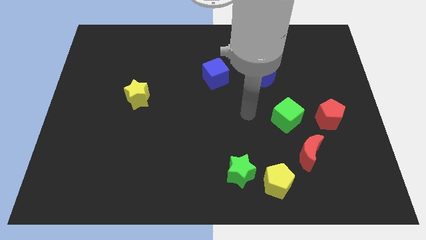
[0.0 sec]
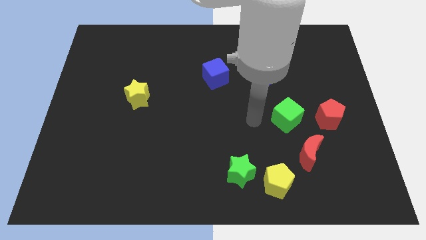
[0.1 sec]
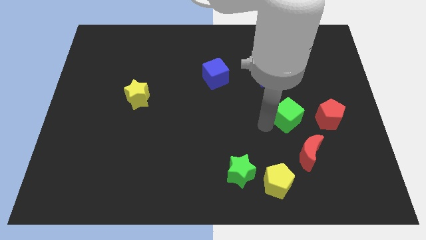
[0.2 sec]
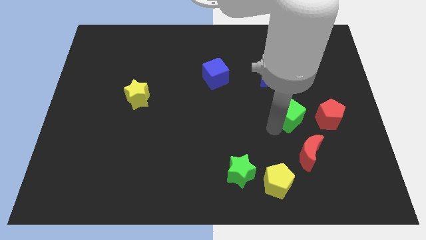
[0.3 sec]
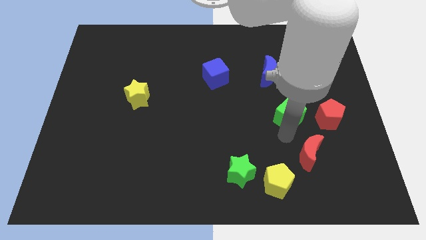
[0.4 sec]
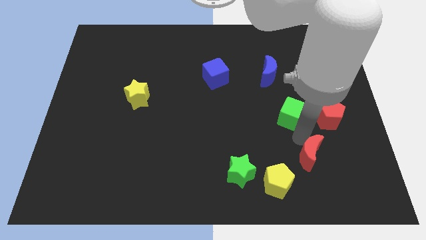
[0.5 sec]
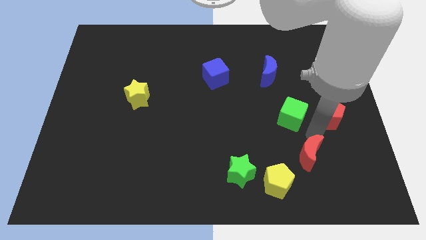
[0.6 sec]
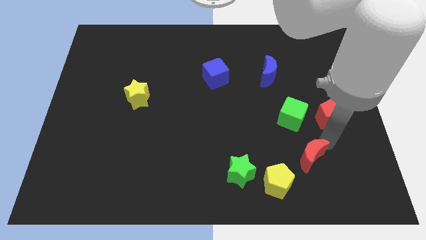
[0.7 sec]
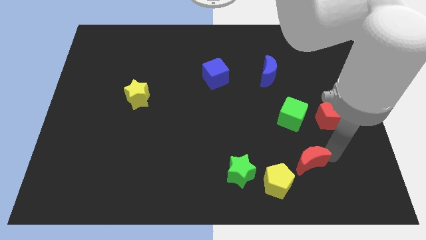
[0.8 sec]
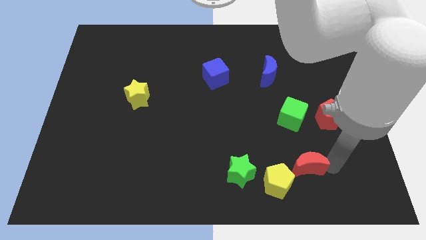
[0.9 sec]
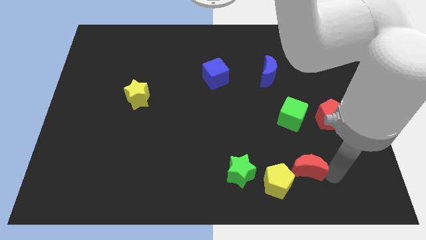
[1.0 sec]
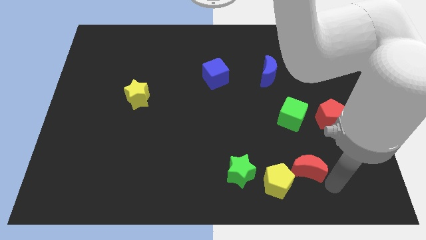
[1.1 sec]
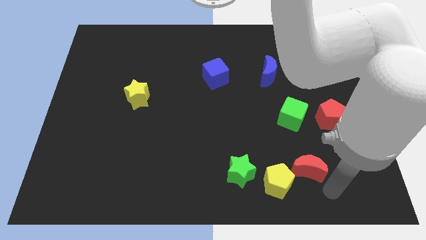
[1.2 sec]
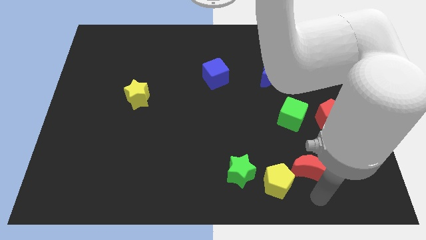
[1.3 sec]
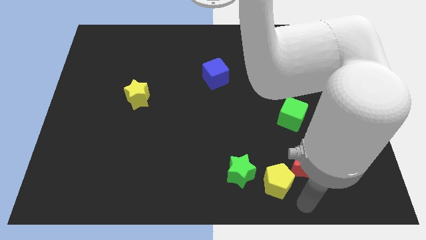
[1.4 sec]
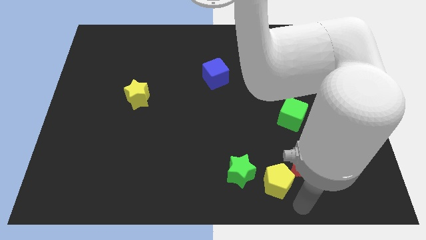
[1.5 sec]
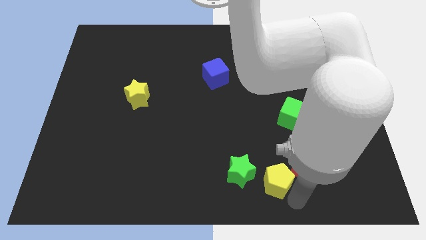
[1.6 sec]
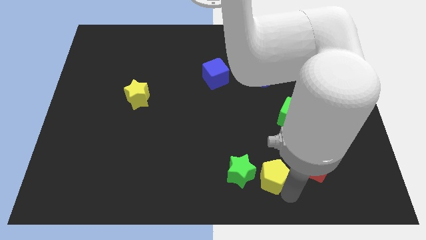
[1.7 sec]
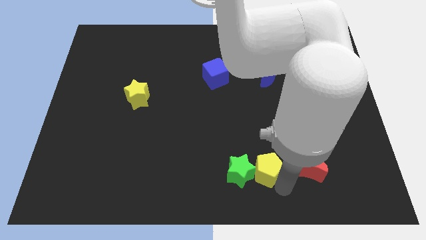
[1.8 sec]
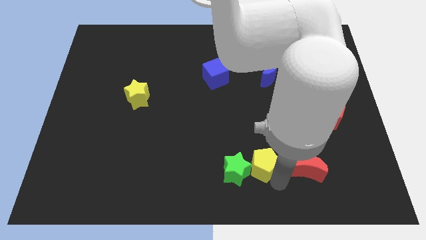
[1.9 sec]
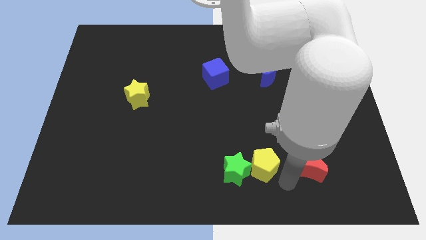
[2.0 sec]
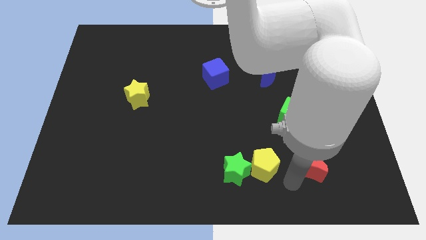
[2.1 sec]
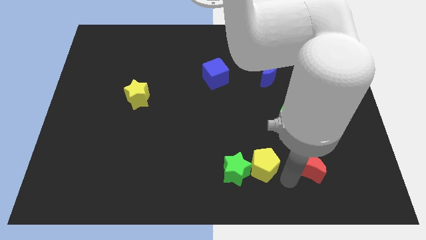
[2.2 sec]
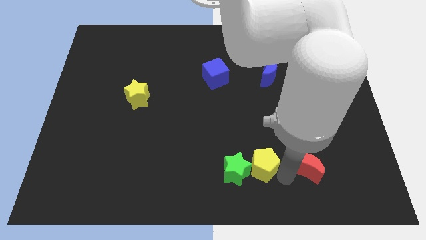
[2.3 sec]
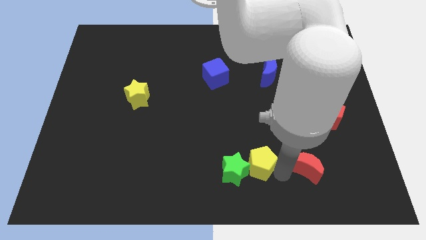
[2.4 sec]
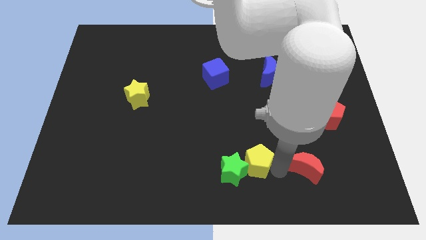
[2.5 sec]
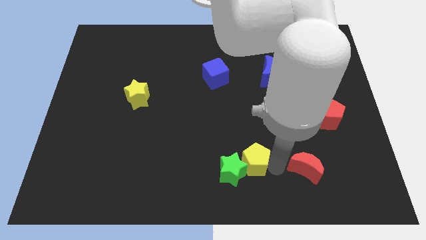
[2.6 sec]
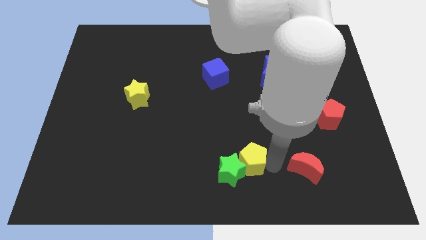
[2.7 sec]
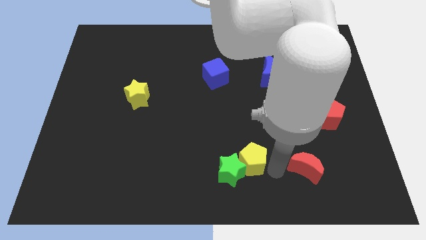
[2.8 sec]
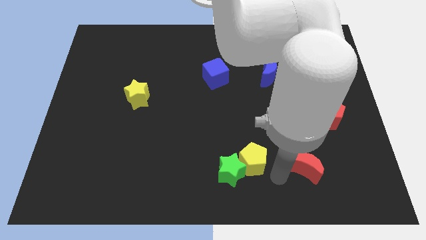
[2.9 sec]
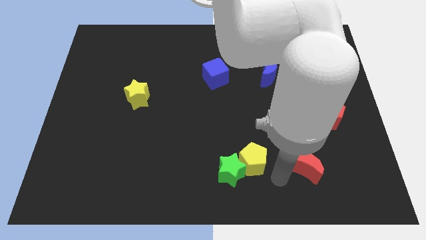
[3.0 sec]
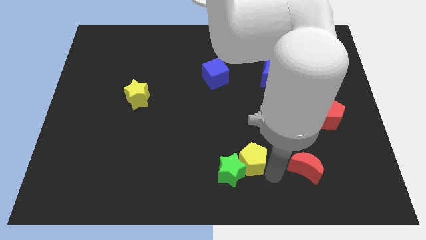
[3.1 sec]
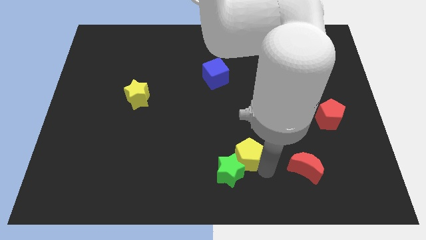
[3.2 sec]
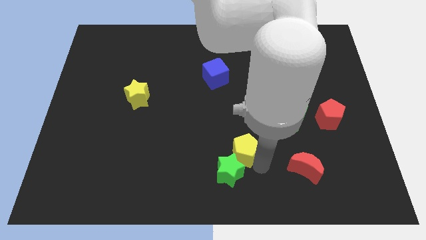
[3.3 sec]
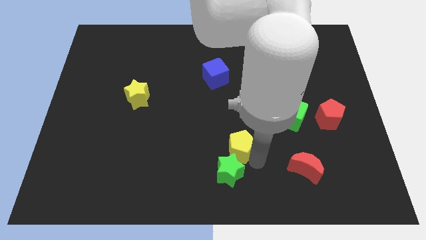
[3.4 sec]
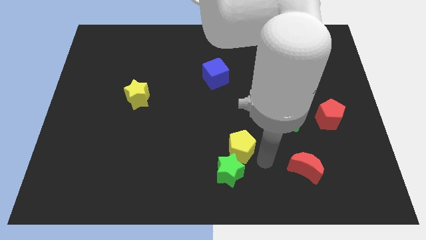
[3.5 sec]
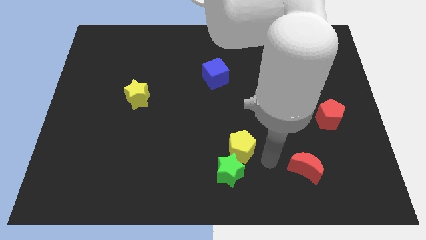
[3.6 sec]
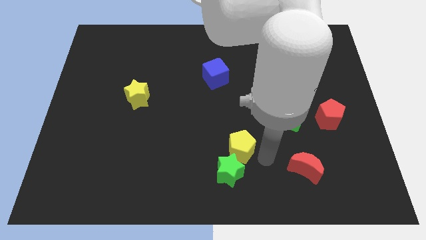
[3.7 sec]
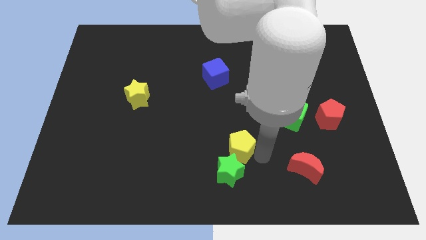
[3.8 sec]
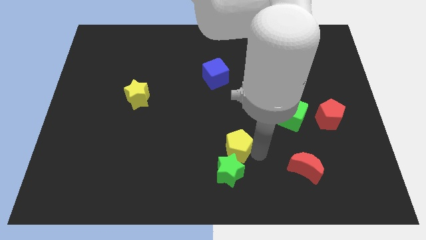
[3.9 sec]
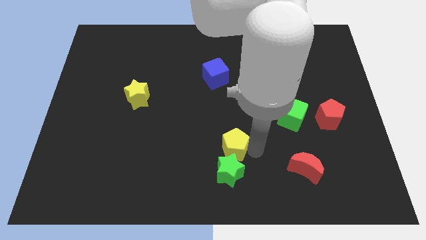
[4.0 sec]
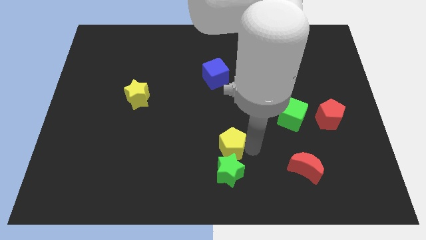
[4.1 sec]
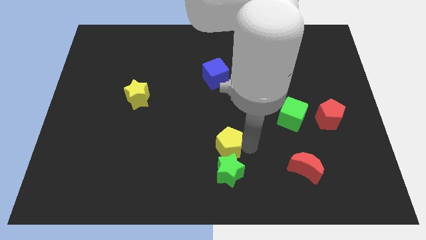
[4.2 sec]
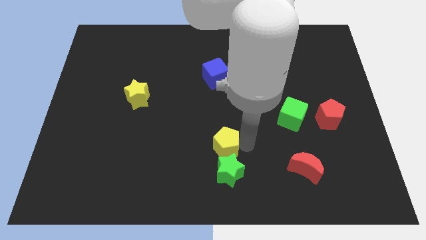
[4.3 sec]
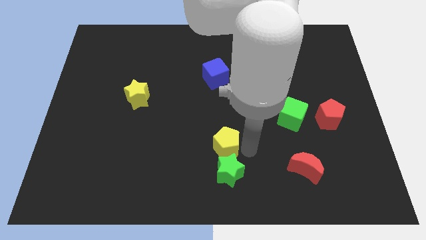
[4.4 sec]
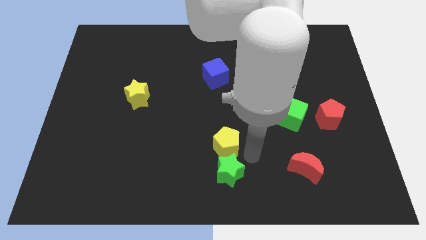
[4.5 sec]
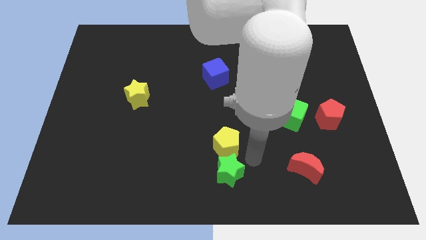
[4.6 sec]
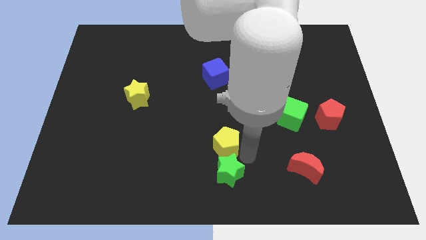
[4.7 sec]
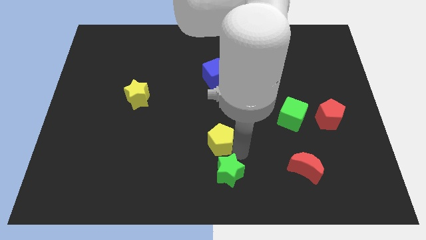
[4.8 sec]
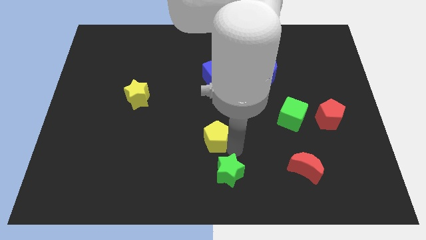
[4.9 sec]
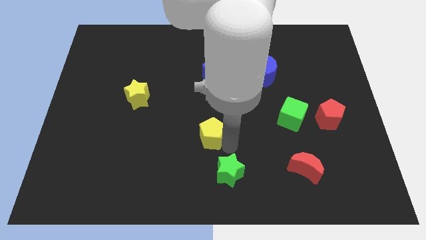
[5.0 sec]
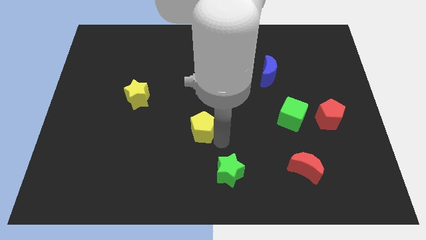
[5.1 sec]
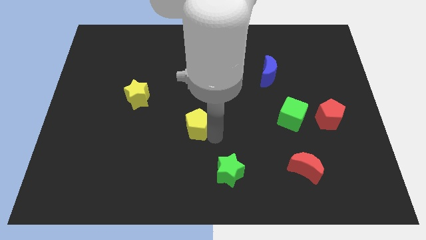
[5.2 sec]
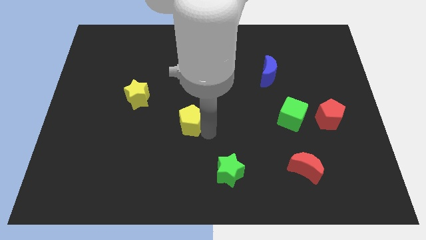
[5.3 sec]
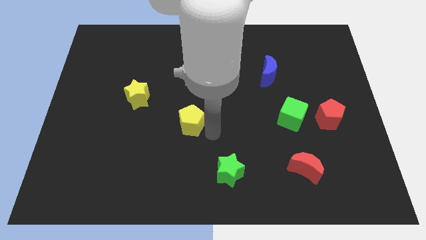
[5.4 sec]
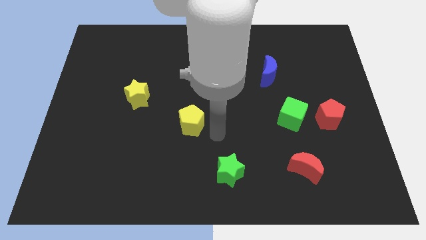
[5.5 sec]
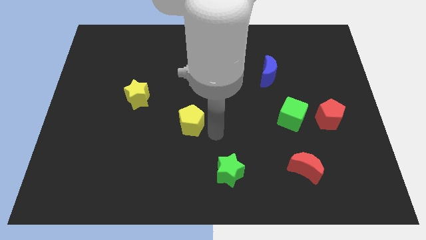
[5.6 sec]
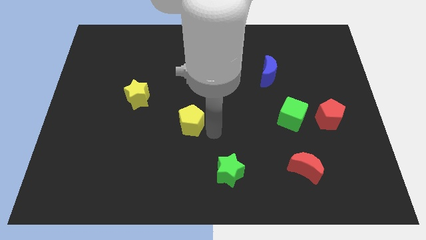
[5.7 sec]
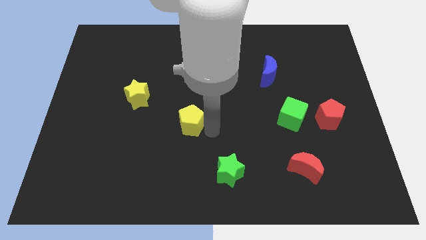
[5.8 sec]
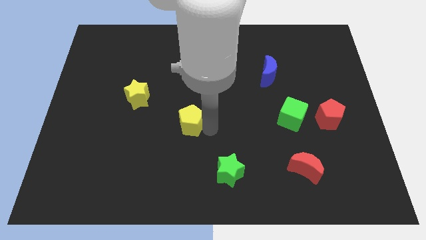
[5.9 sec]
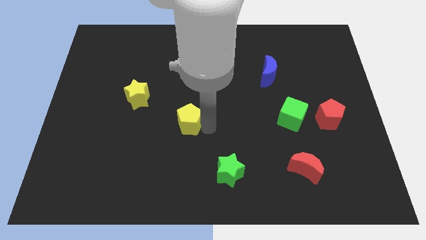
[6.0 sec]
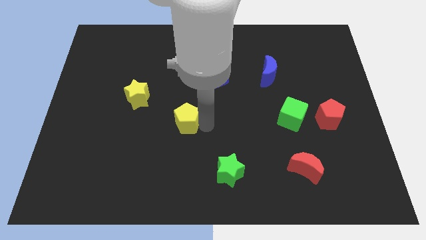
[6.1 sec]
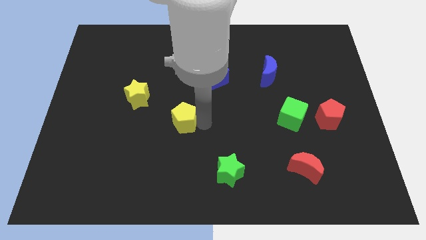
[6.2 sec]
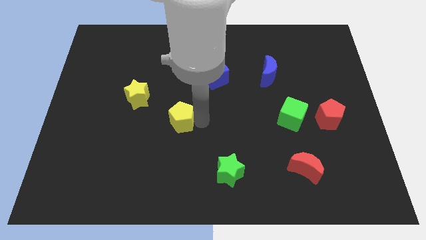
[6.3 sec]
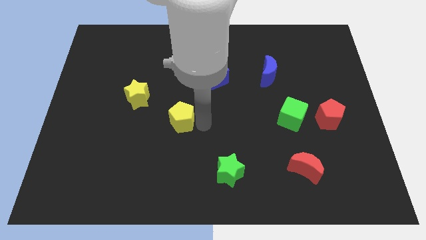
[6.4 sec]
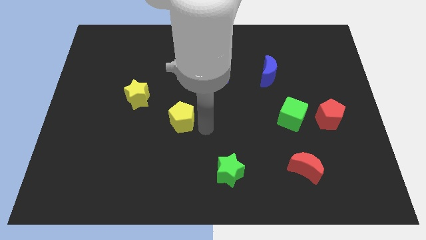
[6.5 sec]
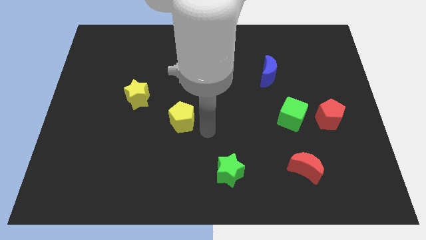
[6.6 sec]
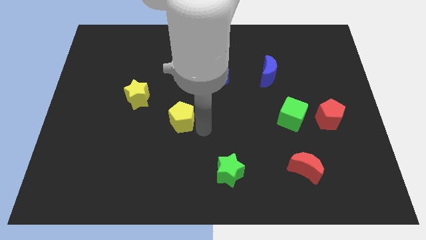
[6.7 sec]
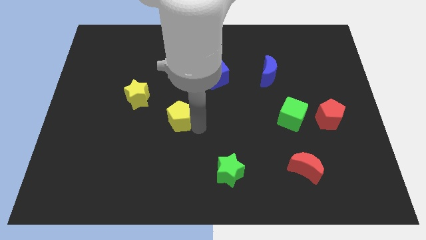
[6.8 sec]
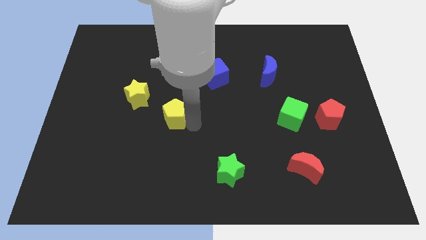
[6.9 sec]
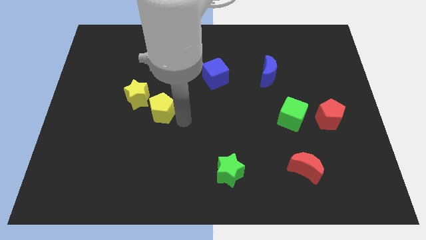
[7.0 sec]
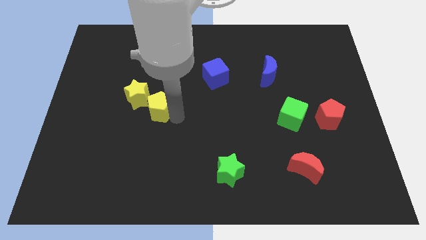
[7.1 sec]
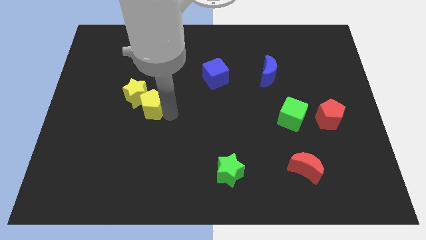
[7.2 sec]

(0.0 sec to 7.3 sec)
put the yellow pentagon close to the yellow star
